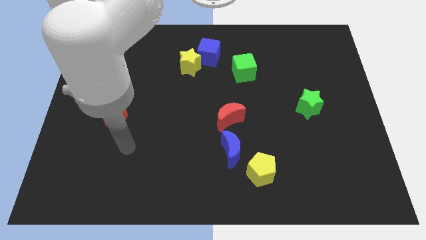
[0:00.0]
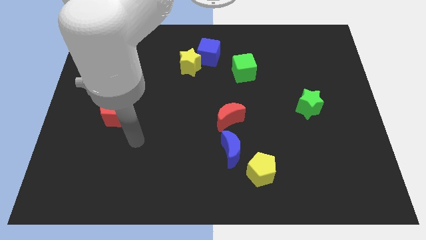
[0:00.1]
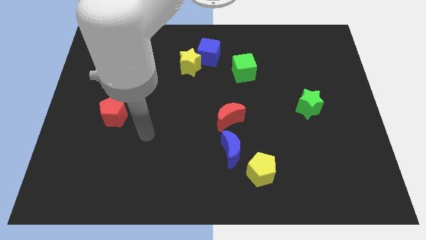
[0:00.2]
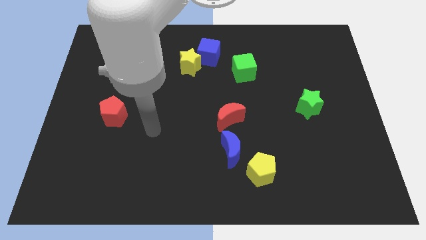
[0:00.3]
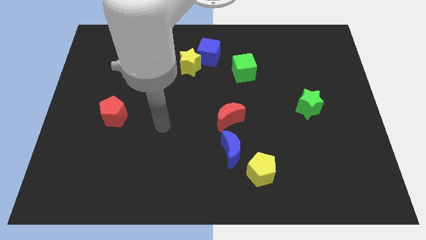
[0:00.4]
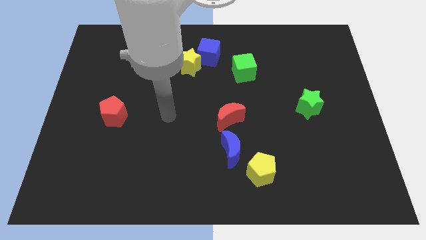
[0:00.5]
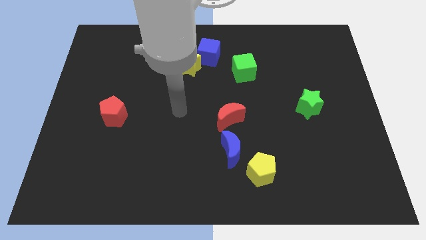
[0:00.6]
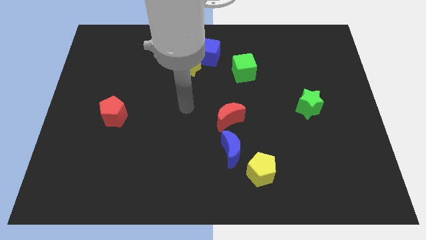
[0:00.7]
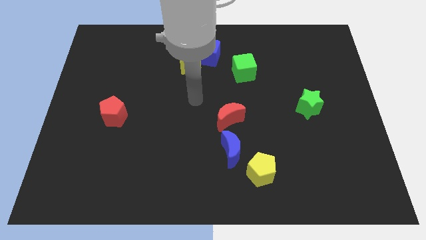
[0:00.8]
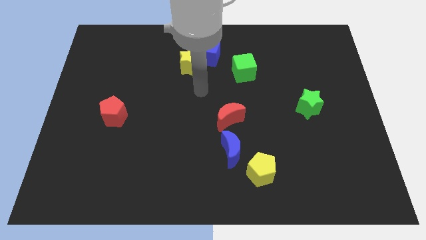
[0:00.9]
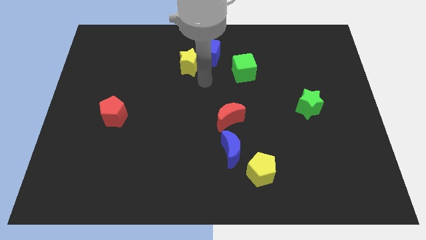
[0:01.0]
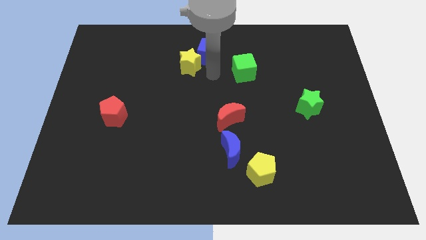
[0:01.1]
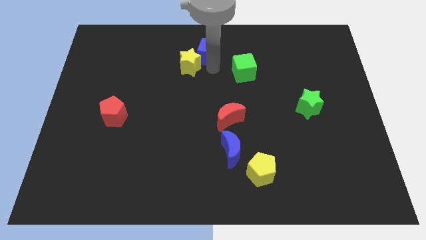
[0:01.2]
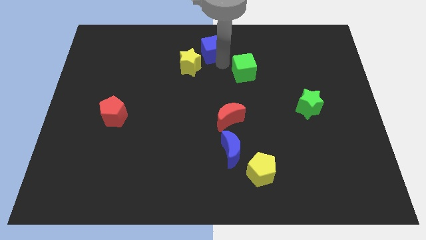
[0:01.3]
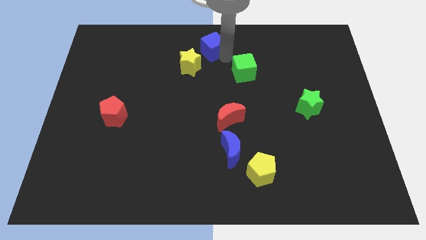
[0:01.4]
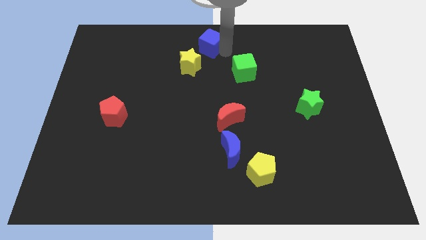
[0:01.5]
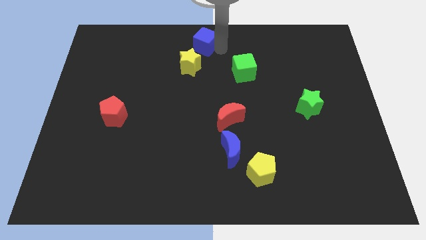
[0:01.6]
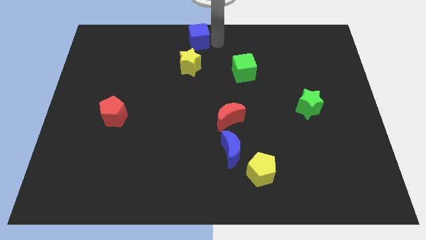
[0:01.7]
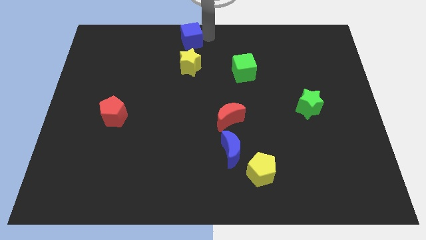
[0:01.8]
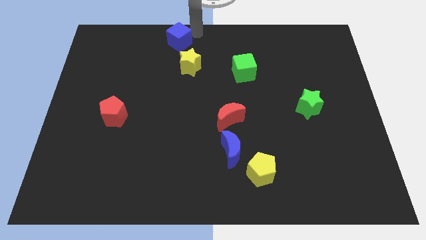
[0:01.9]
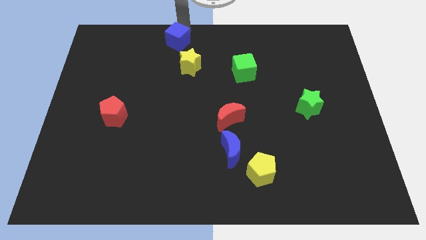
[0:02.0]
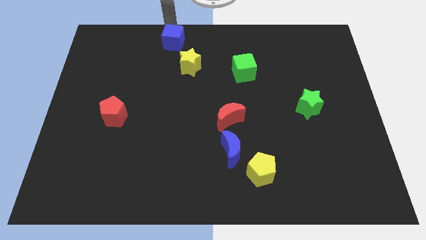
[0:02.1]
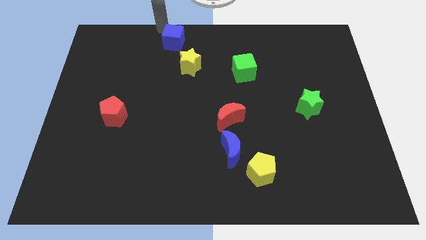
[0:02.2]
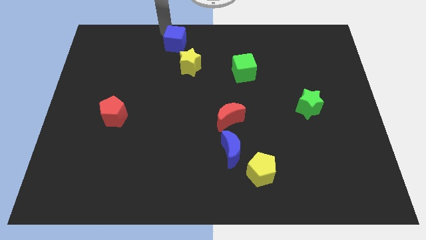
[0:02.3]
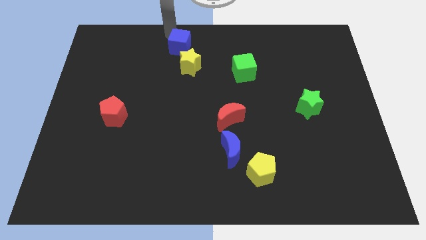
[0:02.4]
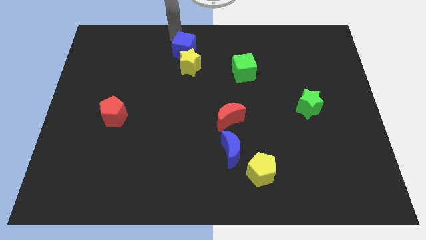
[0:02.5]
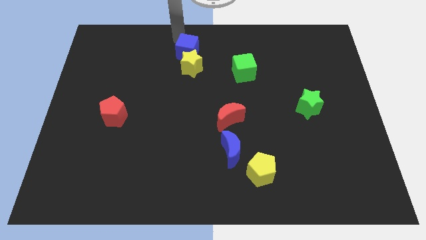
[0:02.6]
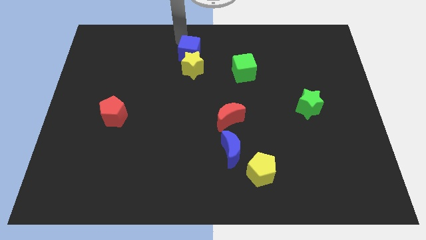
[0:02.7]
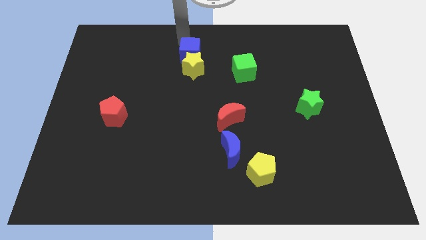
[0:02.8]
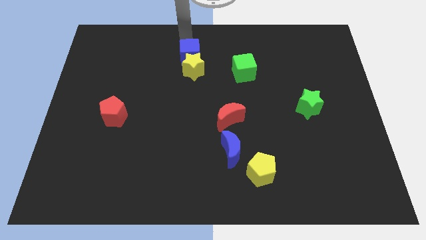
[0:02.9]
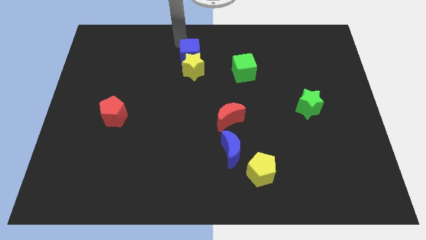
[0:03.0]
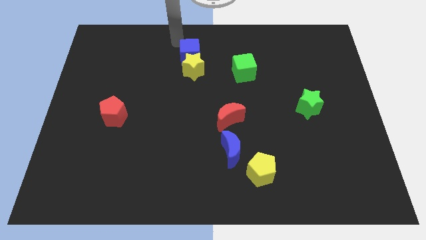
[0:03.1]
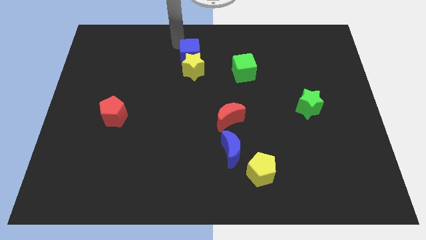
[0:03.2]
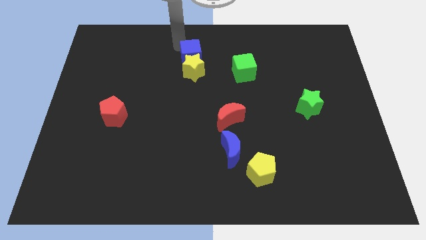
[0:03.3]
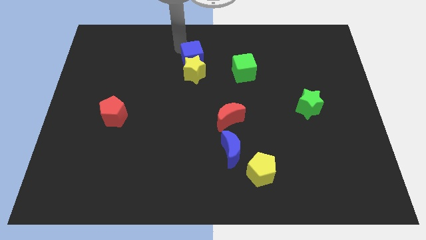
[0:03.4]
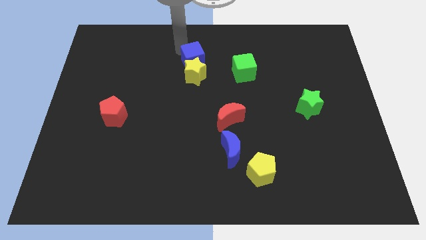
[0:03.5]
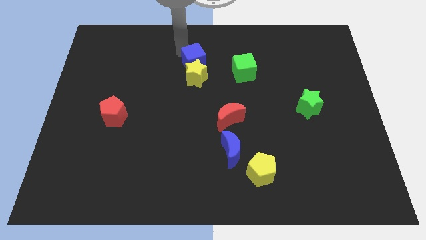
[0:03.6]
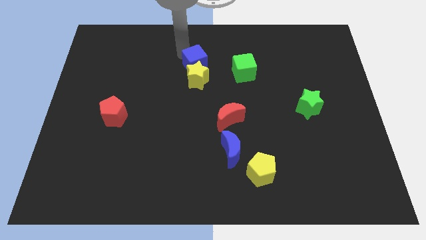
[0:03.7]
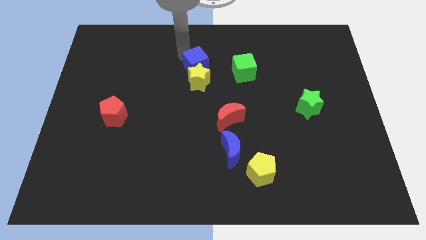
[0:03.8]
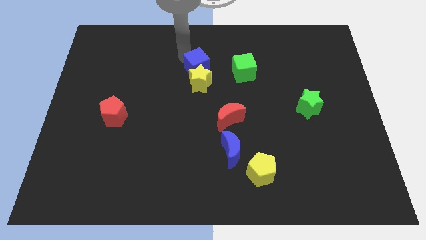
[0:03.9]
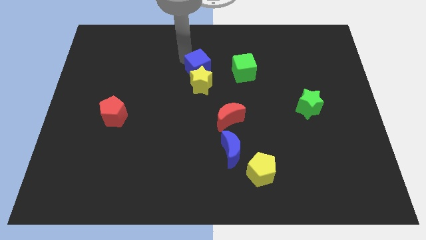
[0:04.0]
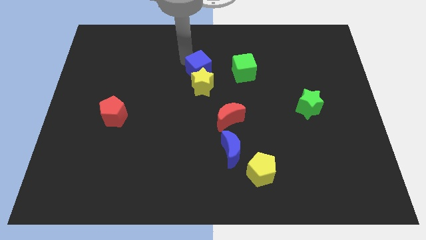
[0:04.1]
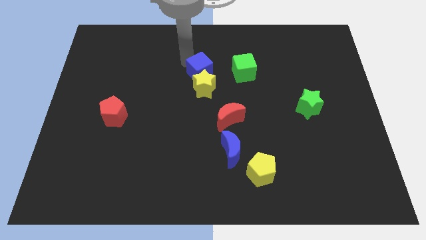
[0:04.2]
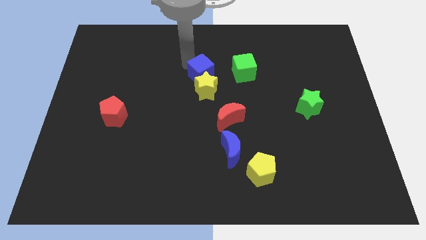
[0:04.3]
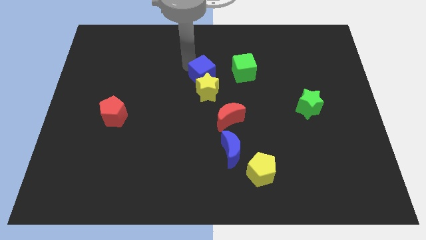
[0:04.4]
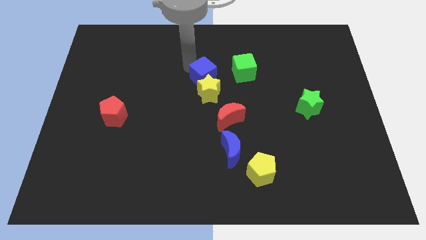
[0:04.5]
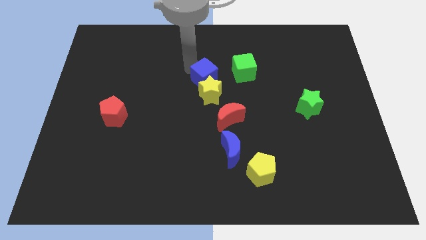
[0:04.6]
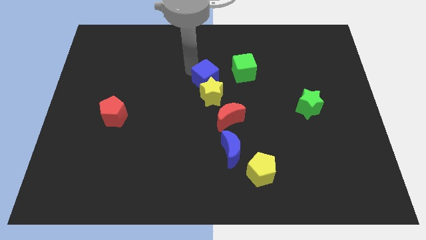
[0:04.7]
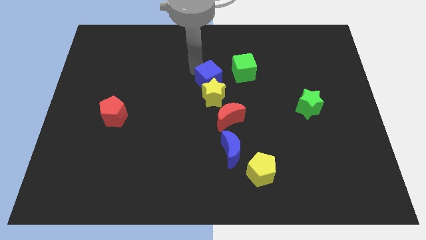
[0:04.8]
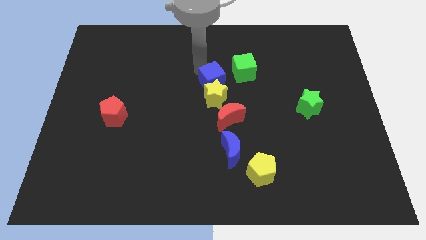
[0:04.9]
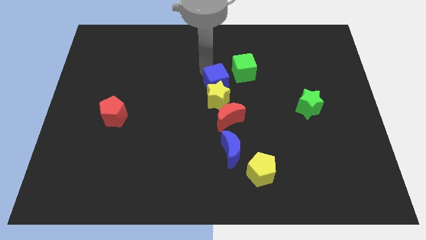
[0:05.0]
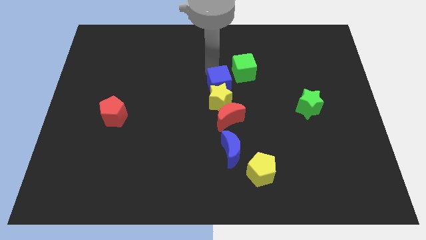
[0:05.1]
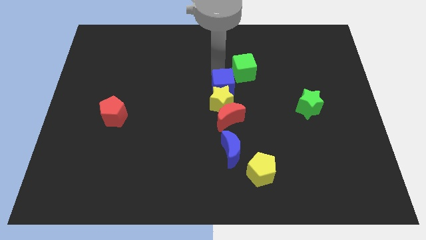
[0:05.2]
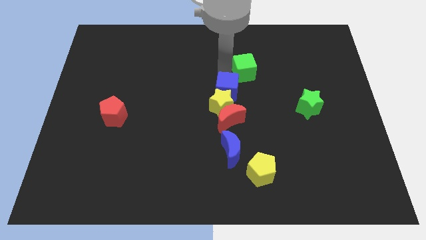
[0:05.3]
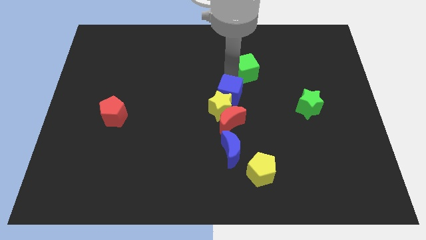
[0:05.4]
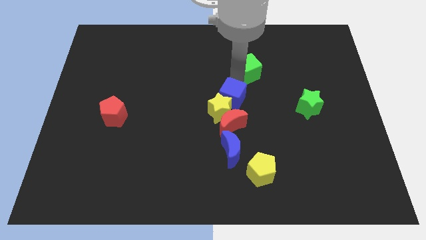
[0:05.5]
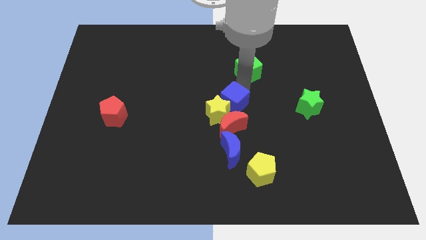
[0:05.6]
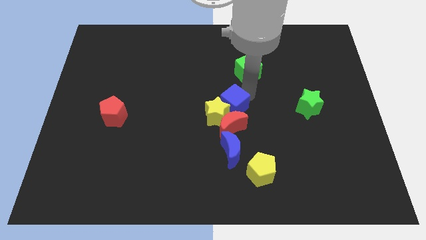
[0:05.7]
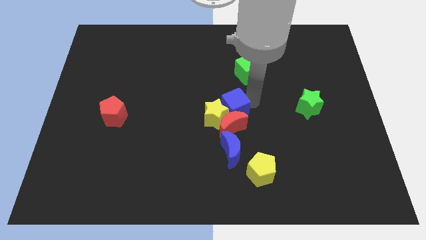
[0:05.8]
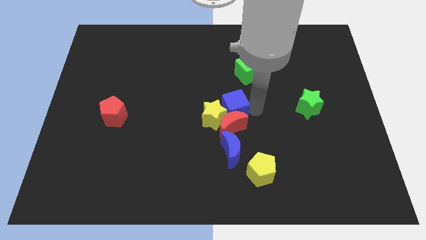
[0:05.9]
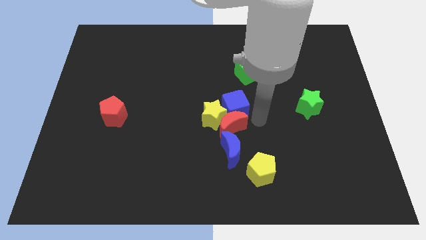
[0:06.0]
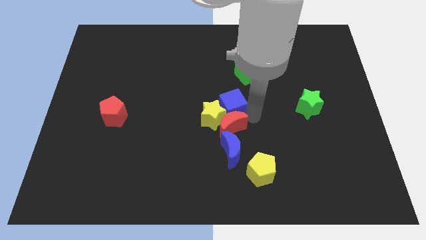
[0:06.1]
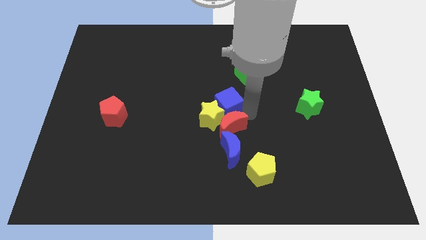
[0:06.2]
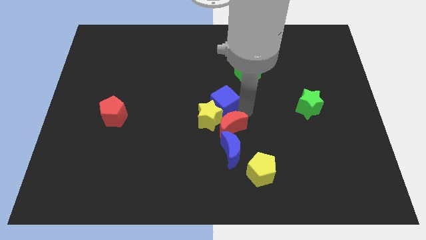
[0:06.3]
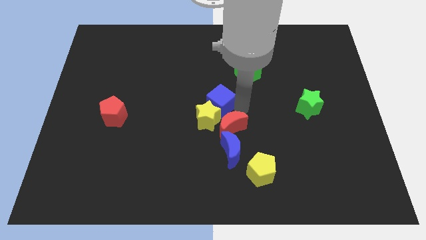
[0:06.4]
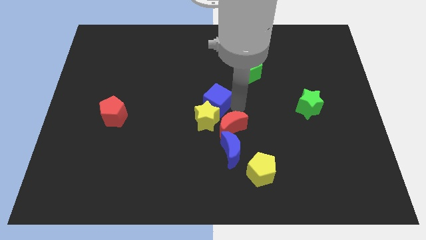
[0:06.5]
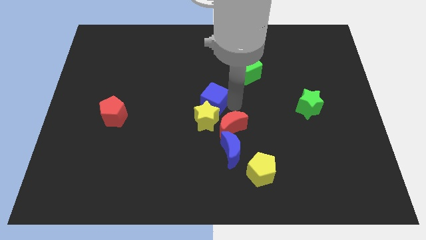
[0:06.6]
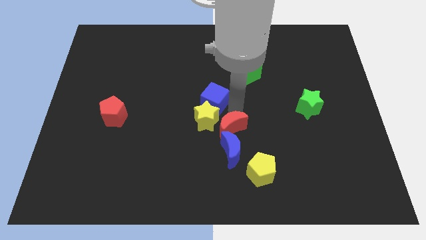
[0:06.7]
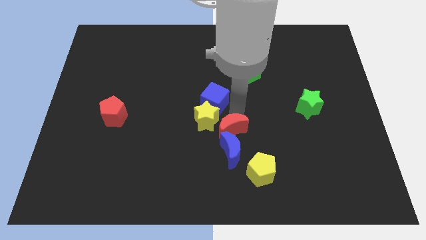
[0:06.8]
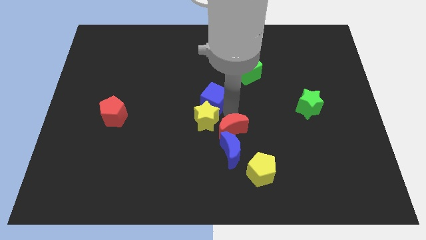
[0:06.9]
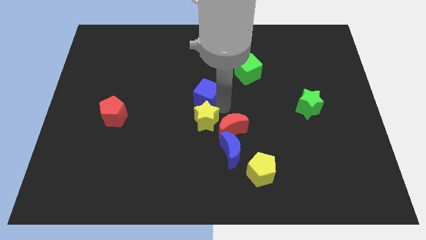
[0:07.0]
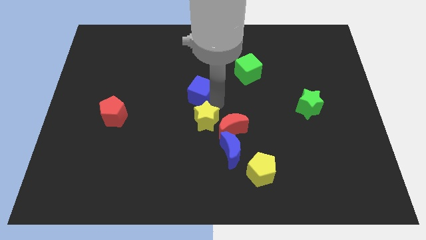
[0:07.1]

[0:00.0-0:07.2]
slightly push the blue cube downwards and to the left

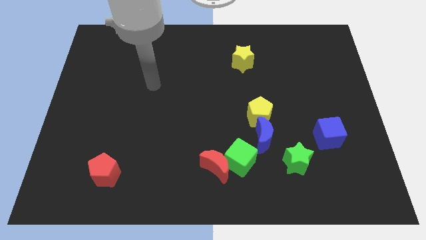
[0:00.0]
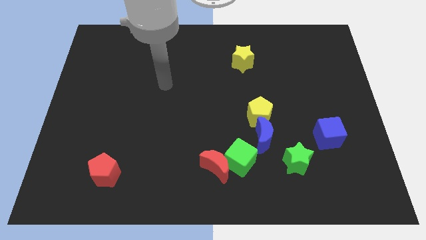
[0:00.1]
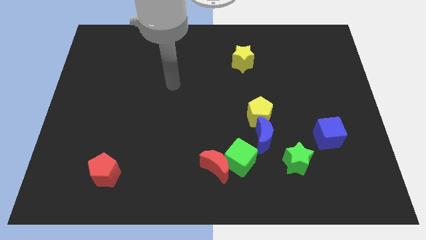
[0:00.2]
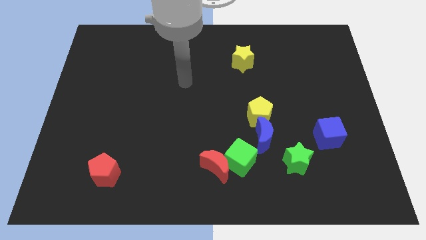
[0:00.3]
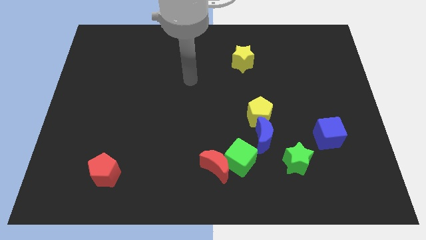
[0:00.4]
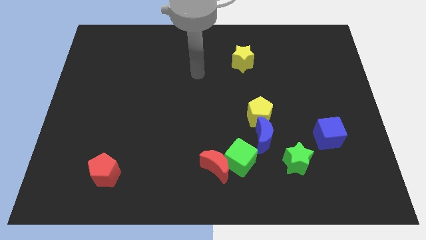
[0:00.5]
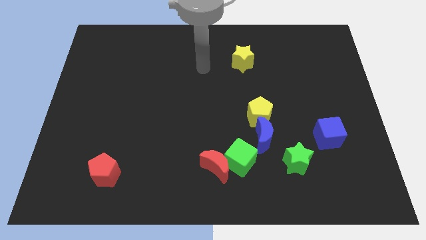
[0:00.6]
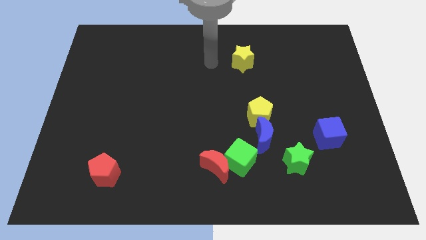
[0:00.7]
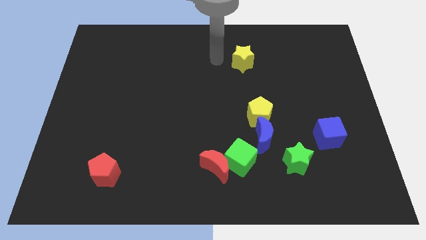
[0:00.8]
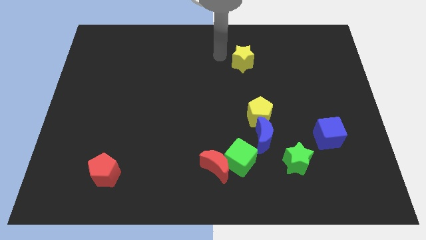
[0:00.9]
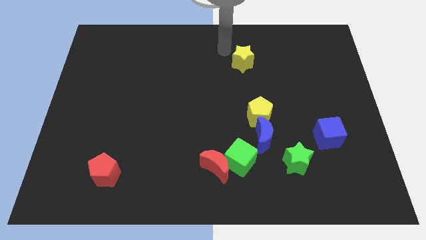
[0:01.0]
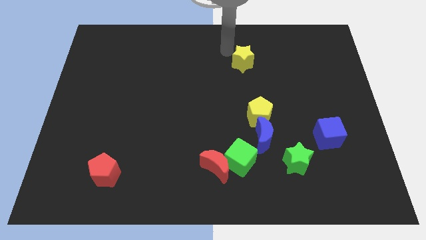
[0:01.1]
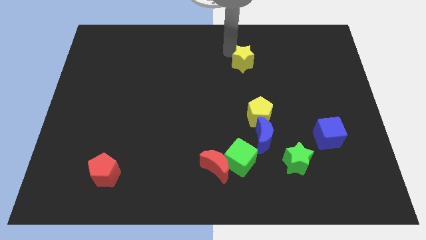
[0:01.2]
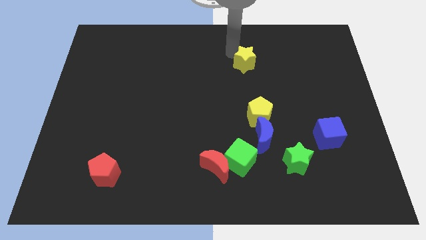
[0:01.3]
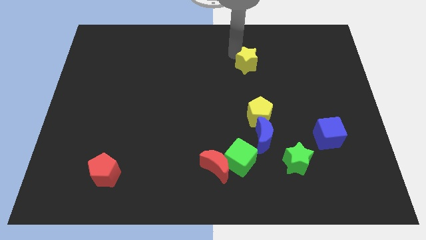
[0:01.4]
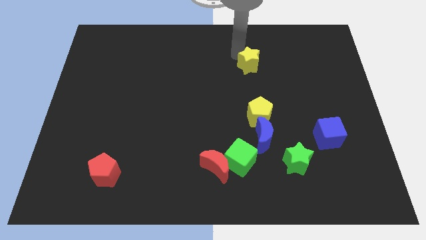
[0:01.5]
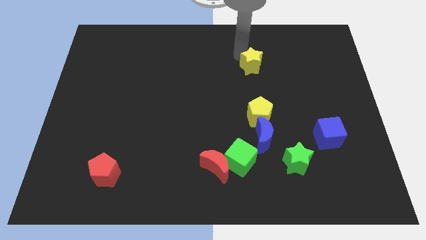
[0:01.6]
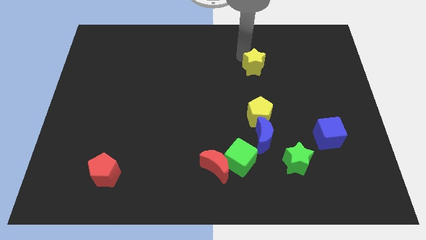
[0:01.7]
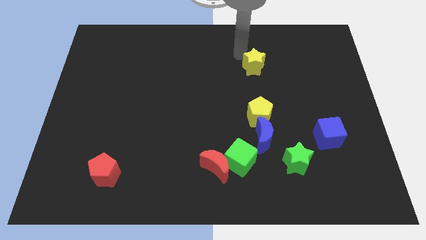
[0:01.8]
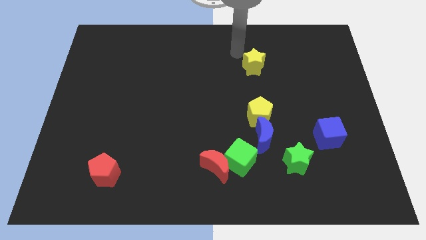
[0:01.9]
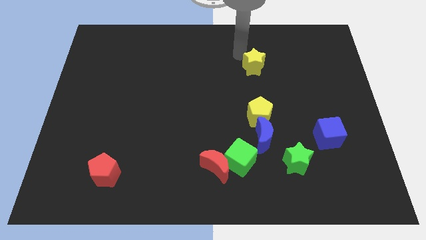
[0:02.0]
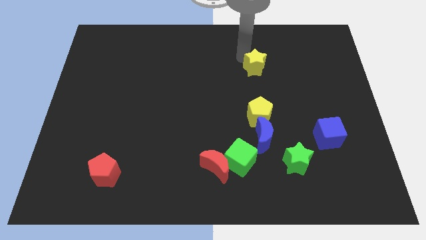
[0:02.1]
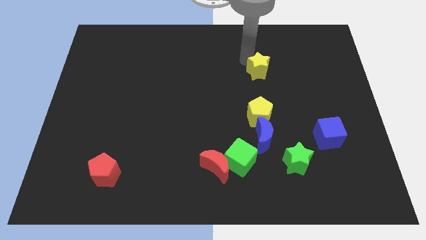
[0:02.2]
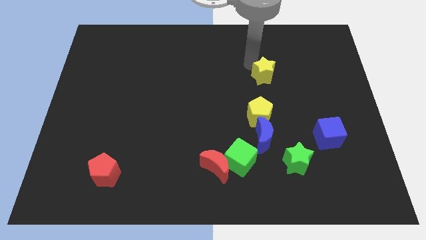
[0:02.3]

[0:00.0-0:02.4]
slightly move the yellow star downwards and right diagonally
